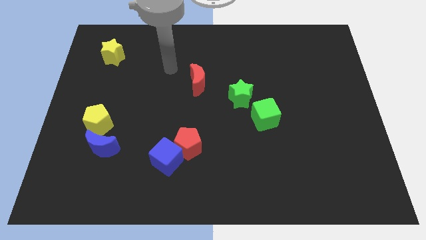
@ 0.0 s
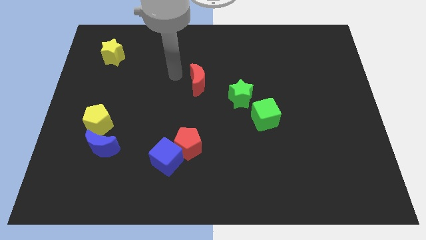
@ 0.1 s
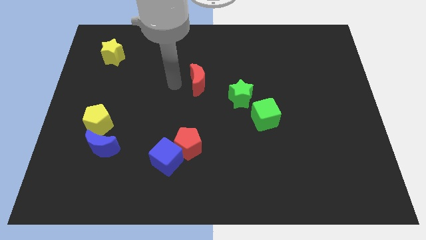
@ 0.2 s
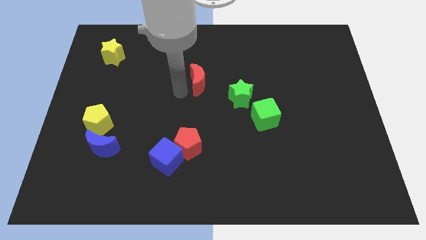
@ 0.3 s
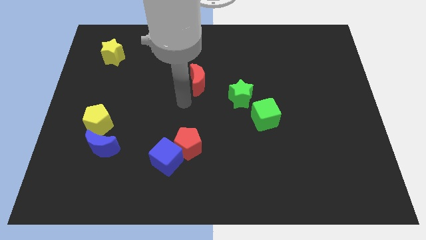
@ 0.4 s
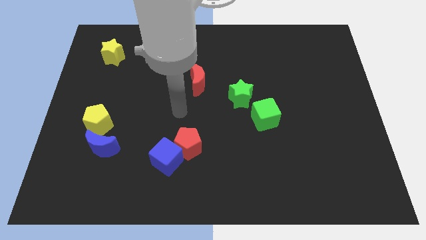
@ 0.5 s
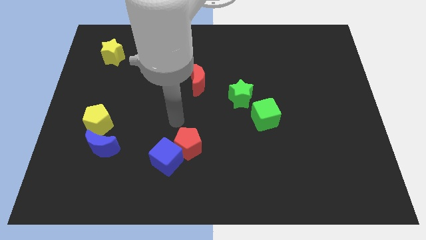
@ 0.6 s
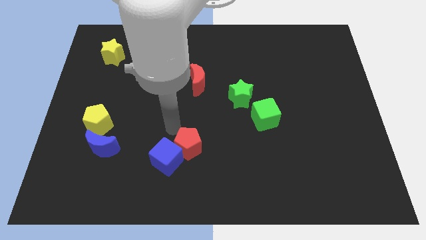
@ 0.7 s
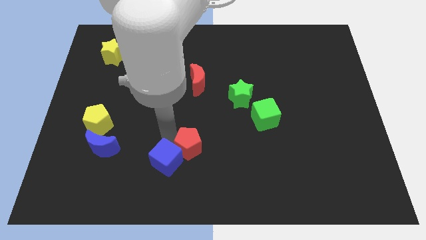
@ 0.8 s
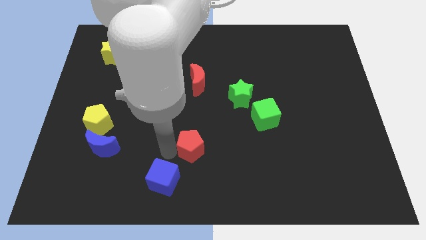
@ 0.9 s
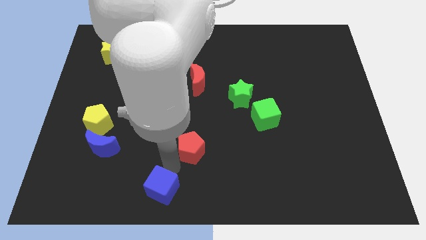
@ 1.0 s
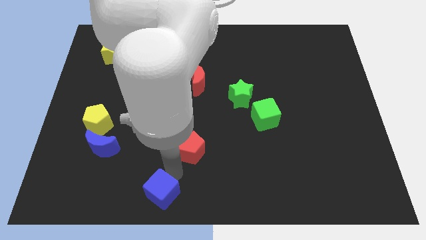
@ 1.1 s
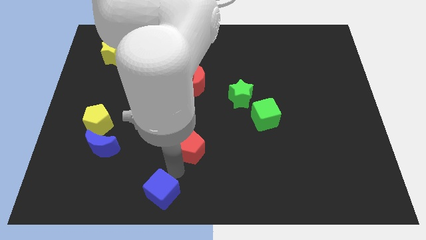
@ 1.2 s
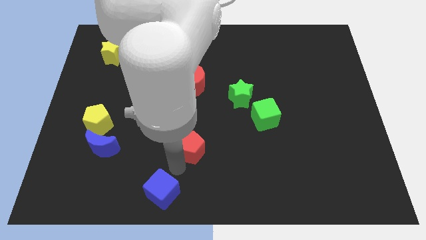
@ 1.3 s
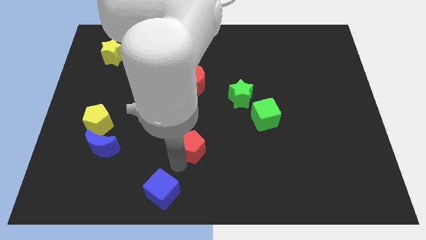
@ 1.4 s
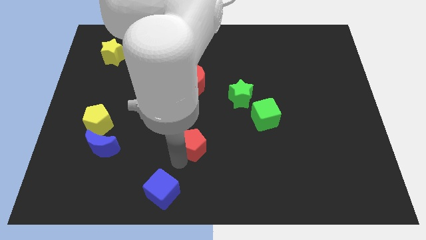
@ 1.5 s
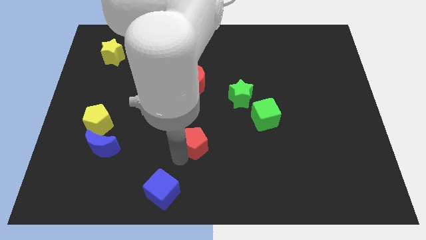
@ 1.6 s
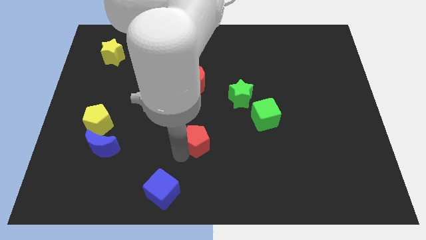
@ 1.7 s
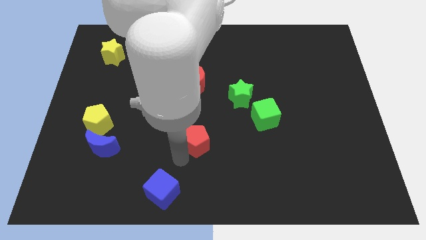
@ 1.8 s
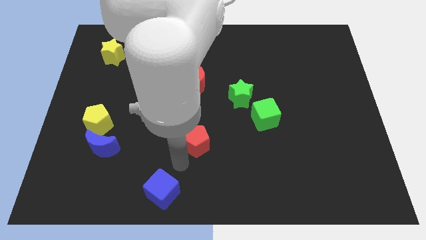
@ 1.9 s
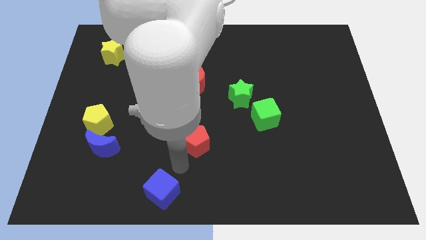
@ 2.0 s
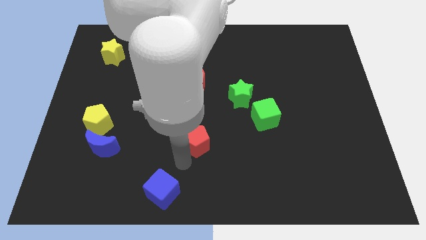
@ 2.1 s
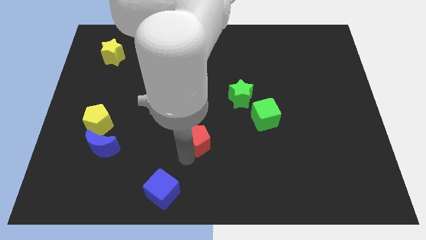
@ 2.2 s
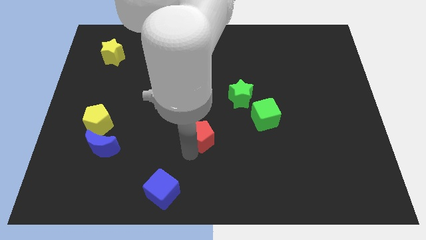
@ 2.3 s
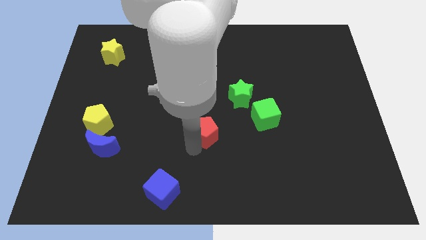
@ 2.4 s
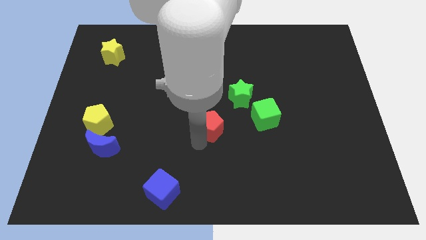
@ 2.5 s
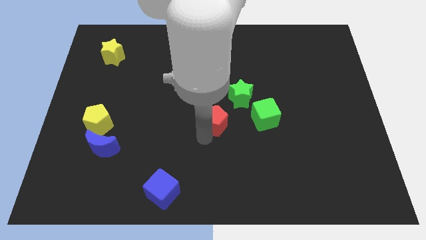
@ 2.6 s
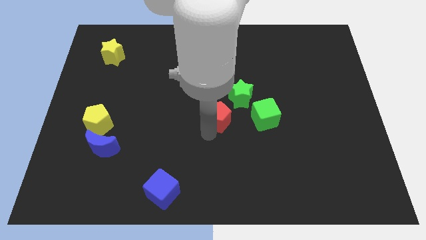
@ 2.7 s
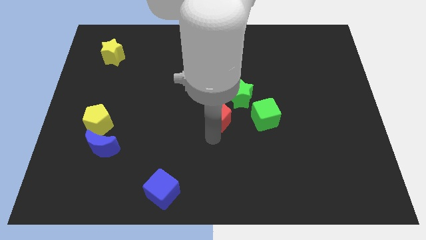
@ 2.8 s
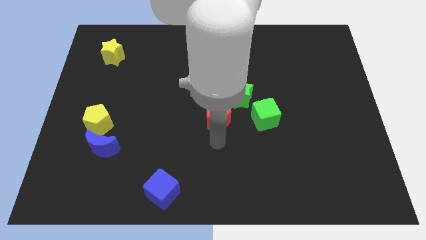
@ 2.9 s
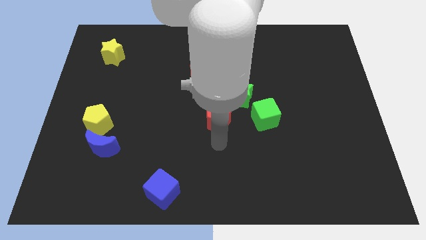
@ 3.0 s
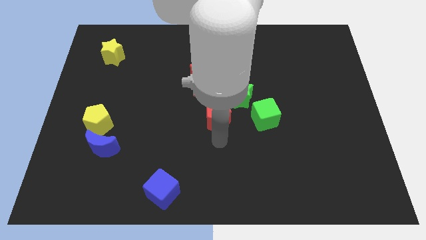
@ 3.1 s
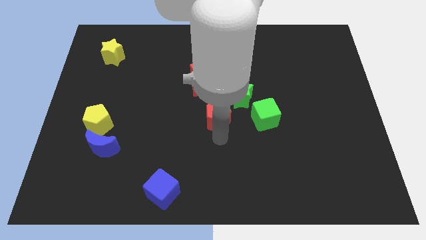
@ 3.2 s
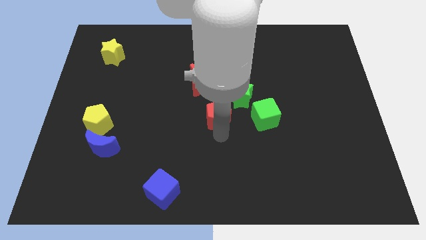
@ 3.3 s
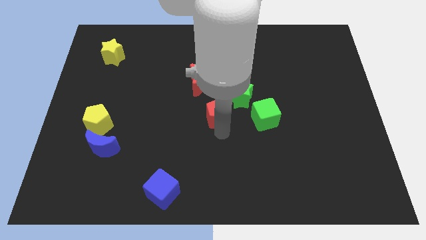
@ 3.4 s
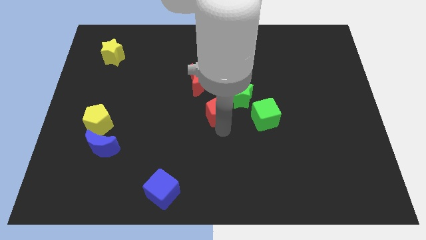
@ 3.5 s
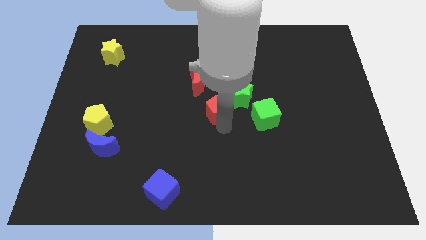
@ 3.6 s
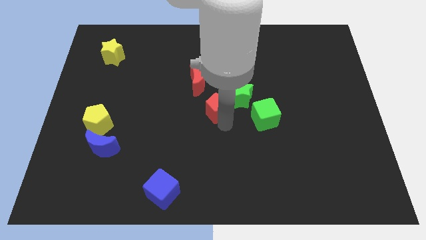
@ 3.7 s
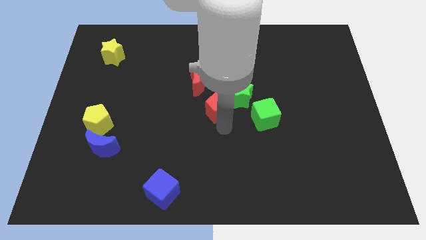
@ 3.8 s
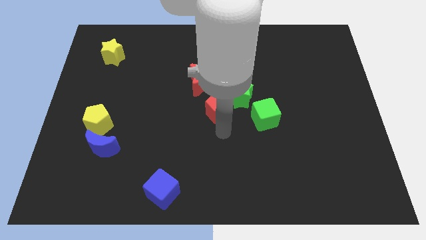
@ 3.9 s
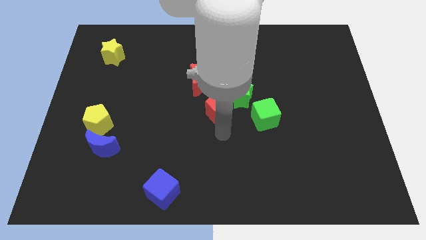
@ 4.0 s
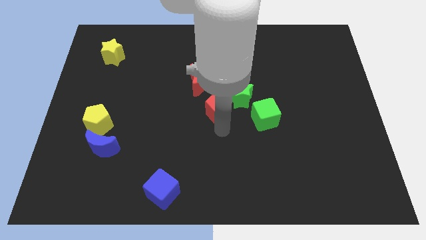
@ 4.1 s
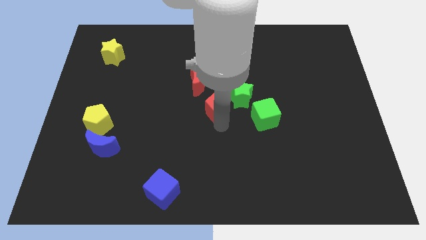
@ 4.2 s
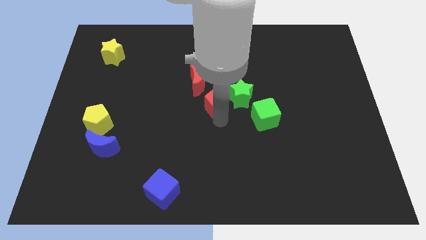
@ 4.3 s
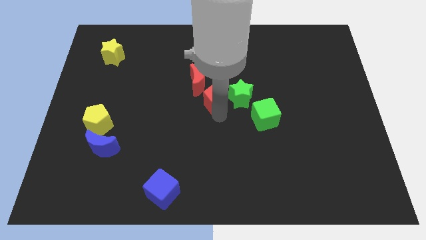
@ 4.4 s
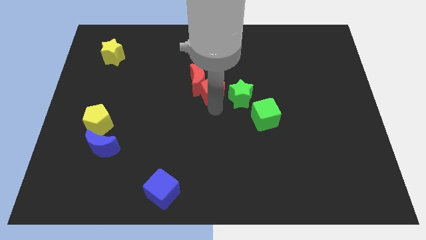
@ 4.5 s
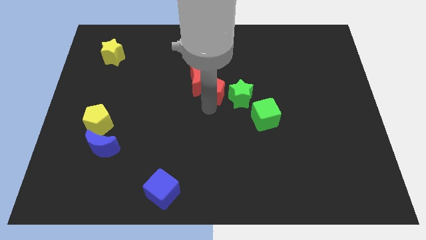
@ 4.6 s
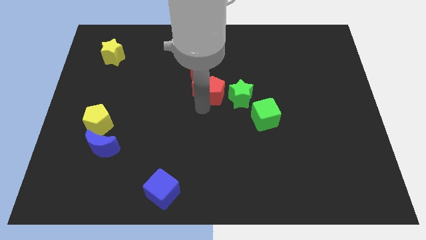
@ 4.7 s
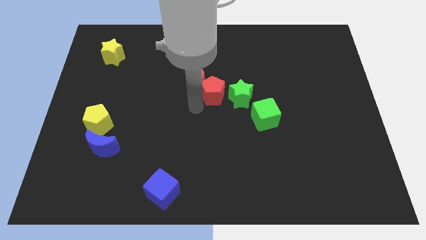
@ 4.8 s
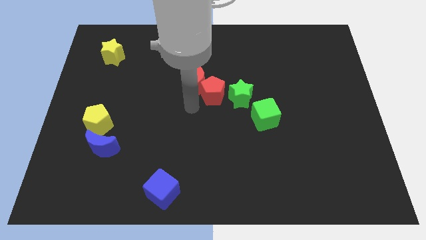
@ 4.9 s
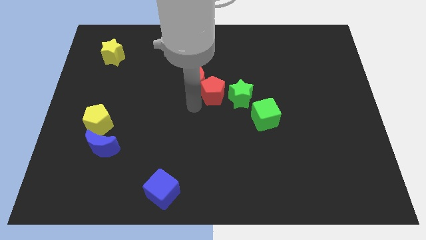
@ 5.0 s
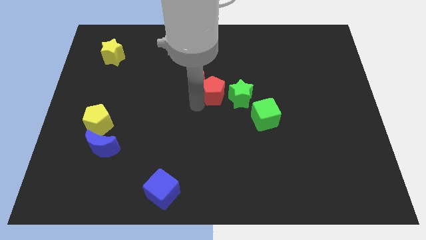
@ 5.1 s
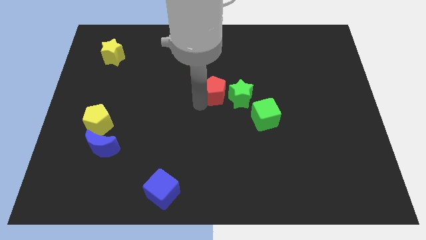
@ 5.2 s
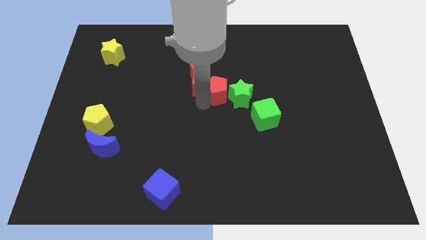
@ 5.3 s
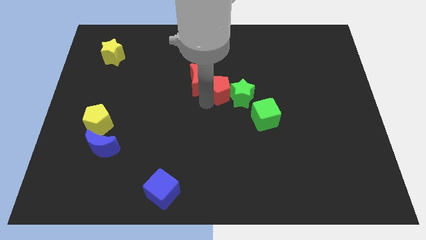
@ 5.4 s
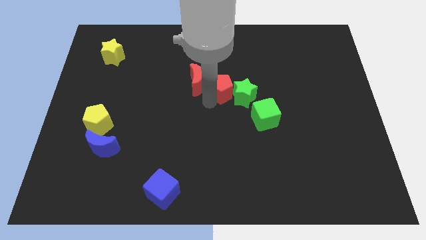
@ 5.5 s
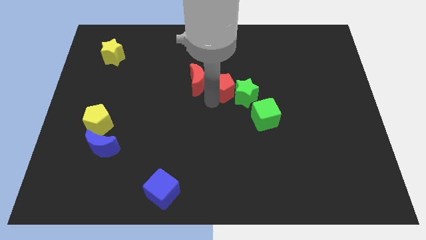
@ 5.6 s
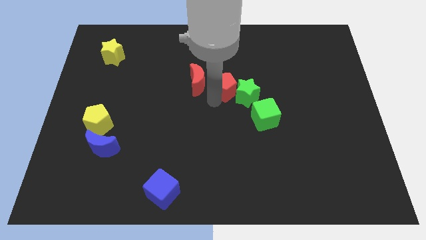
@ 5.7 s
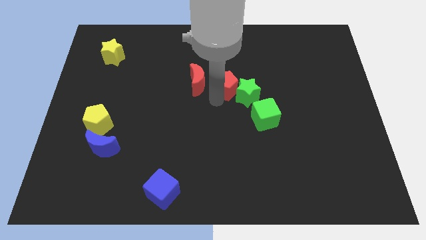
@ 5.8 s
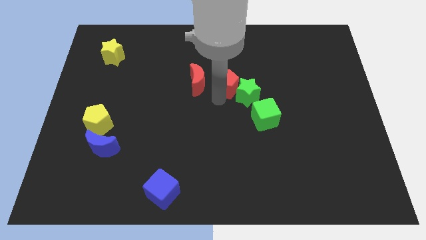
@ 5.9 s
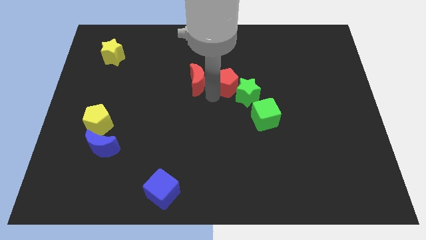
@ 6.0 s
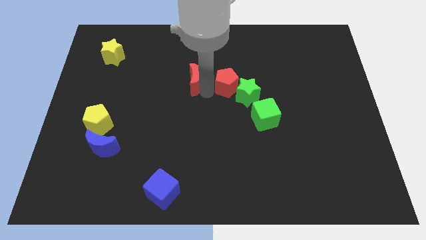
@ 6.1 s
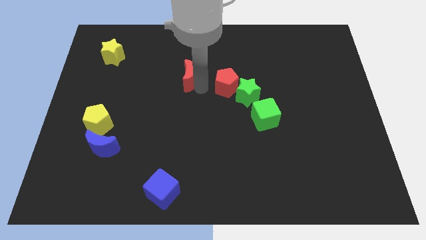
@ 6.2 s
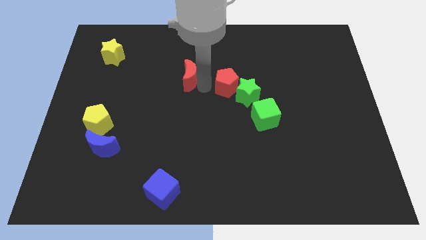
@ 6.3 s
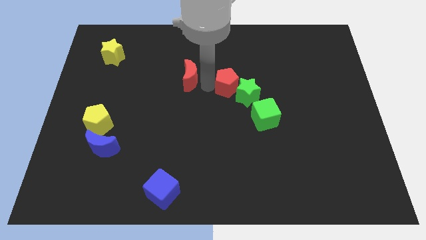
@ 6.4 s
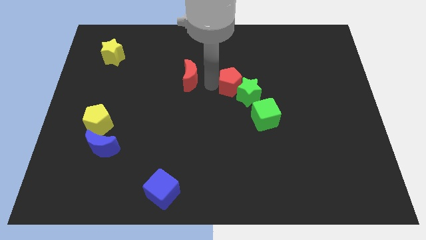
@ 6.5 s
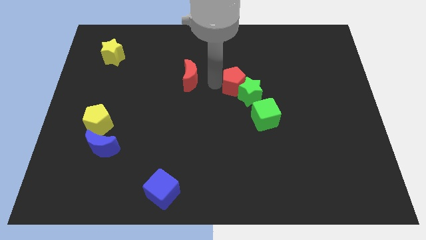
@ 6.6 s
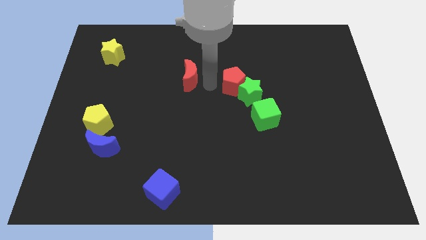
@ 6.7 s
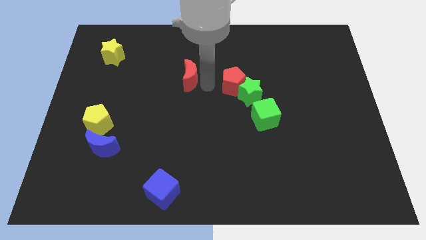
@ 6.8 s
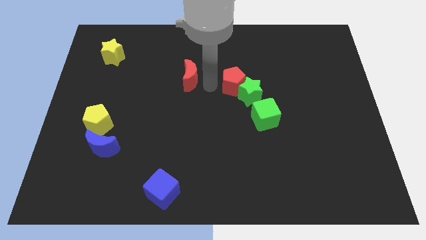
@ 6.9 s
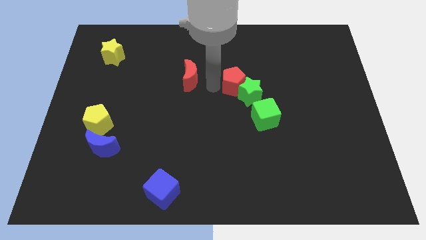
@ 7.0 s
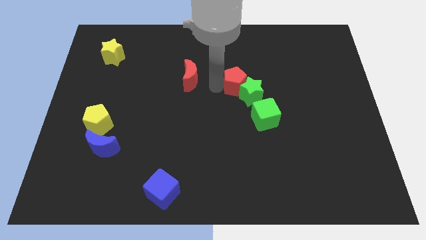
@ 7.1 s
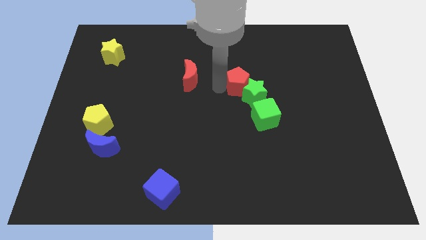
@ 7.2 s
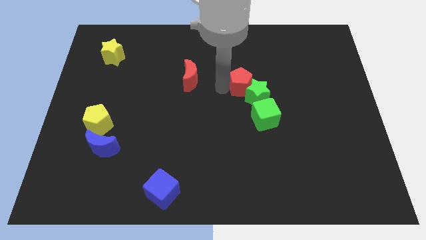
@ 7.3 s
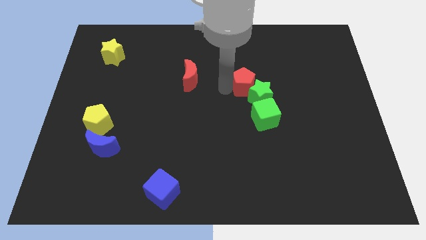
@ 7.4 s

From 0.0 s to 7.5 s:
move the red pentagon to the top side of the green cube
